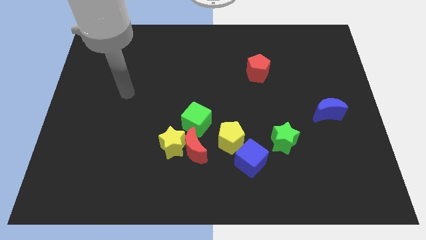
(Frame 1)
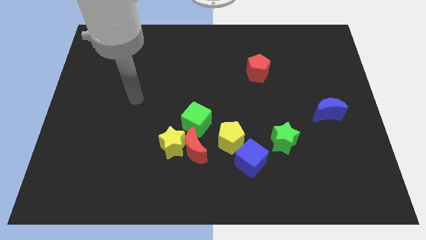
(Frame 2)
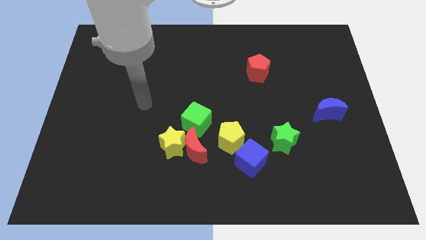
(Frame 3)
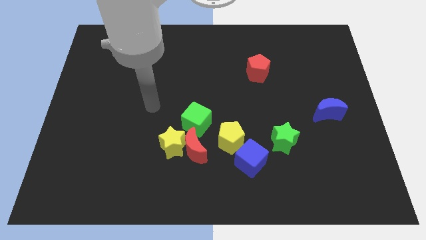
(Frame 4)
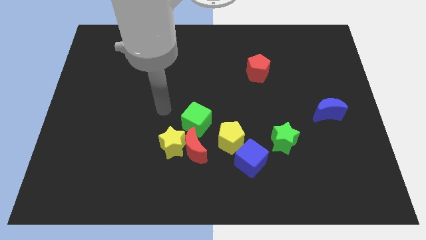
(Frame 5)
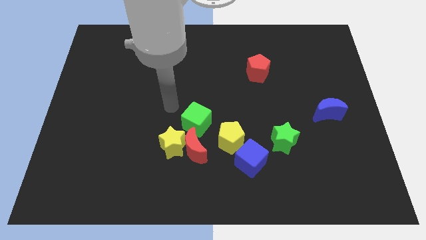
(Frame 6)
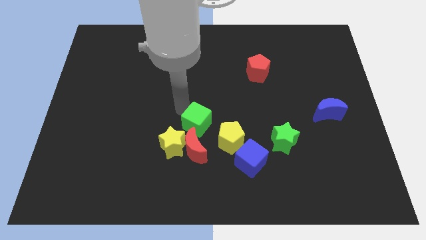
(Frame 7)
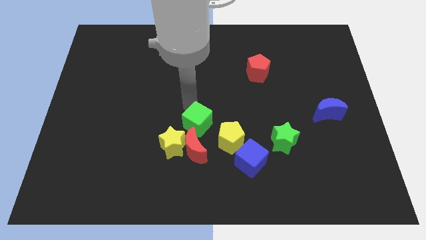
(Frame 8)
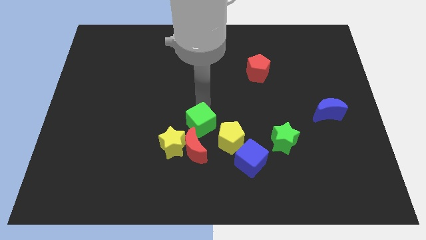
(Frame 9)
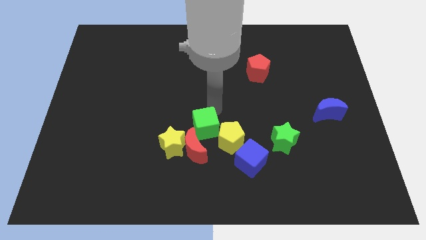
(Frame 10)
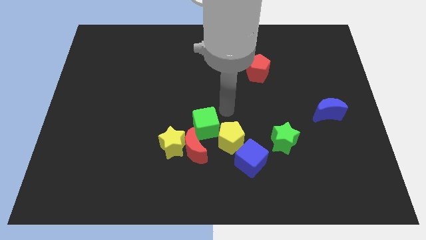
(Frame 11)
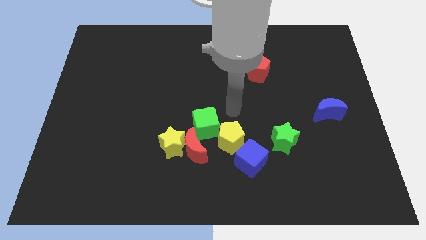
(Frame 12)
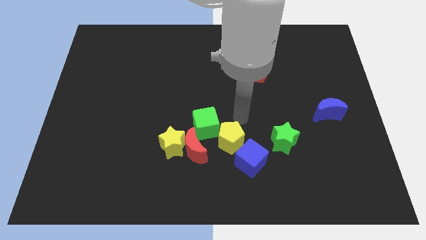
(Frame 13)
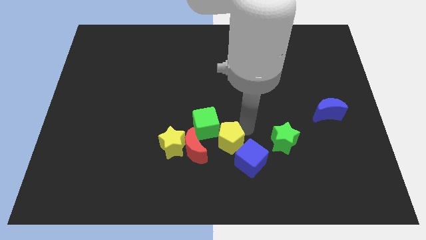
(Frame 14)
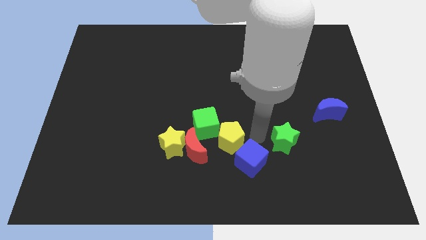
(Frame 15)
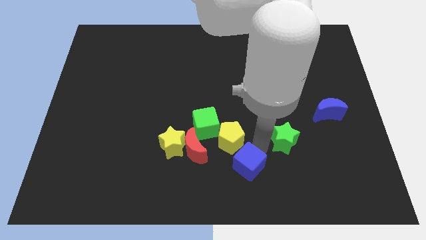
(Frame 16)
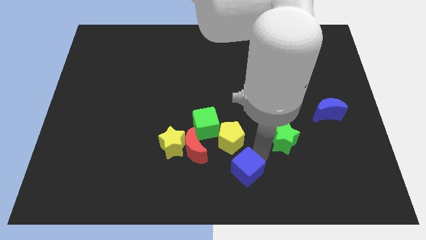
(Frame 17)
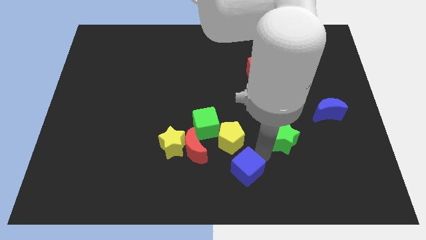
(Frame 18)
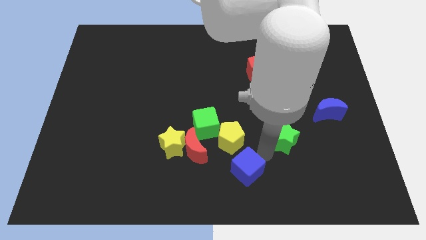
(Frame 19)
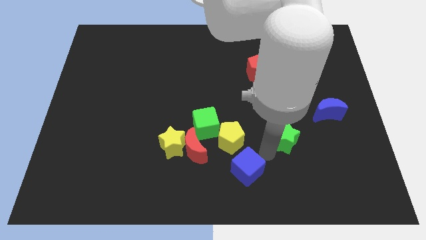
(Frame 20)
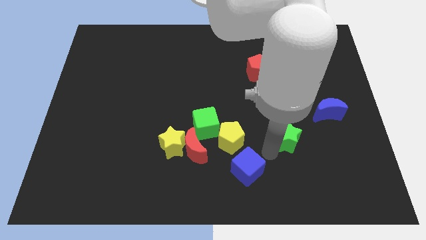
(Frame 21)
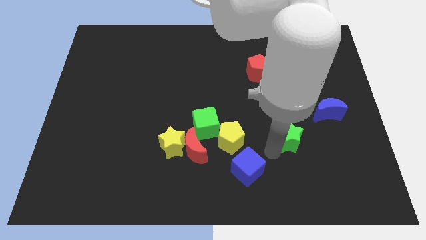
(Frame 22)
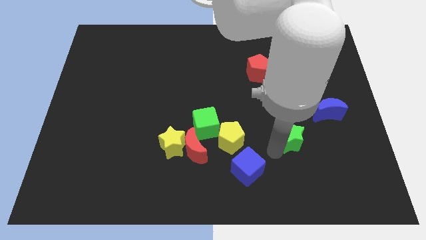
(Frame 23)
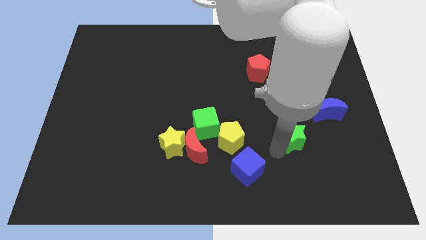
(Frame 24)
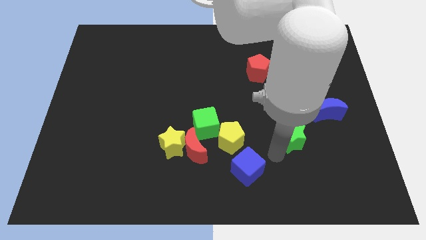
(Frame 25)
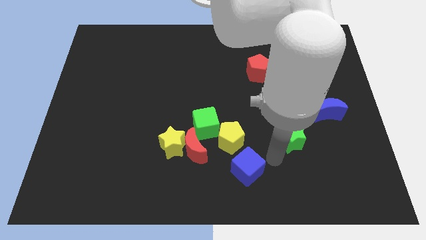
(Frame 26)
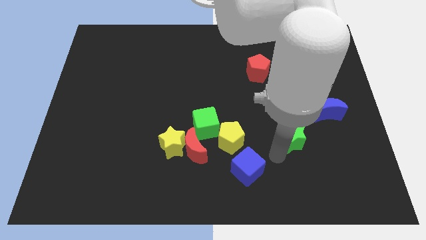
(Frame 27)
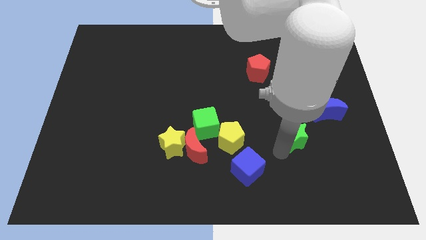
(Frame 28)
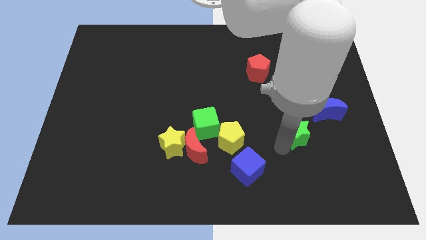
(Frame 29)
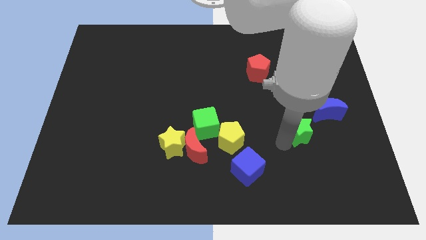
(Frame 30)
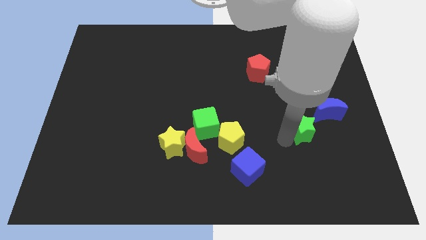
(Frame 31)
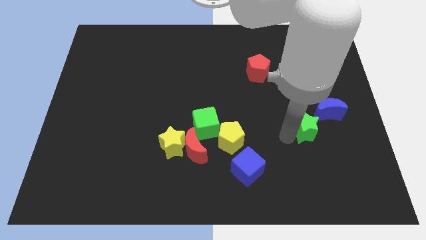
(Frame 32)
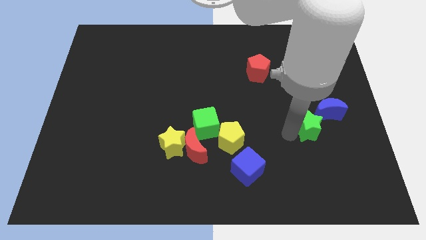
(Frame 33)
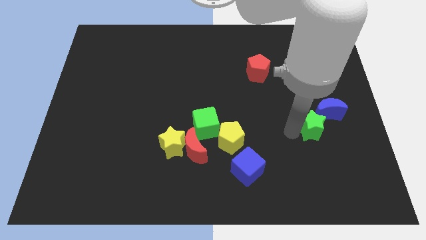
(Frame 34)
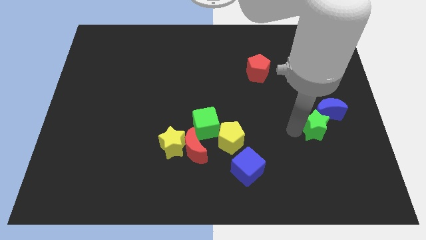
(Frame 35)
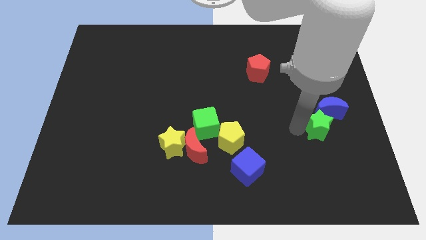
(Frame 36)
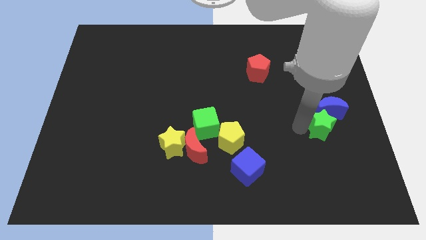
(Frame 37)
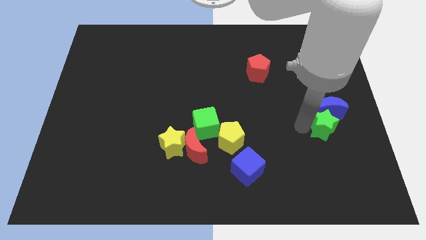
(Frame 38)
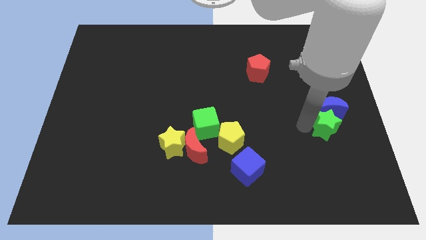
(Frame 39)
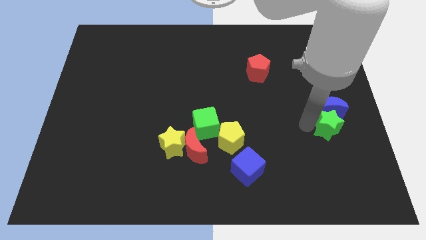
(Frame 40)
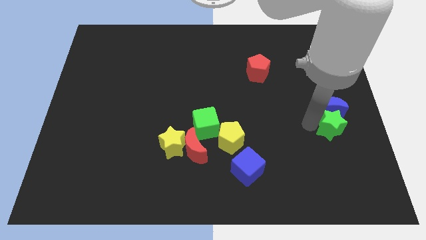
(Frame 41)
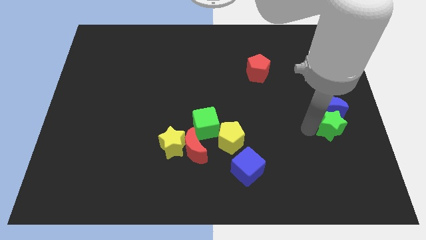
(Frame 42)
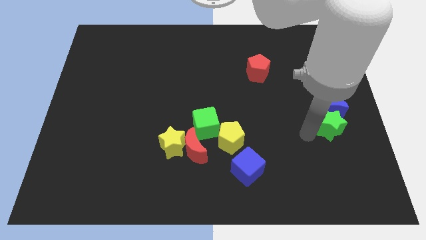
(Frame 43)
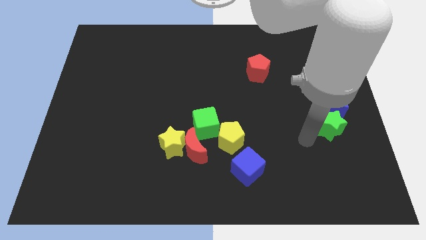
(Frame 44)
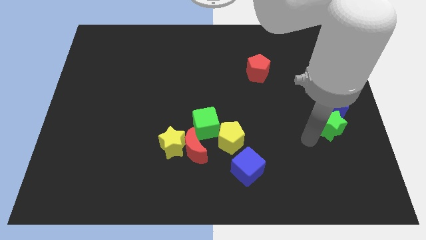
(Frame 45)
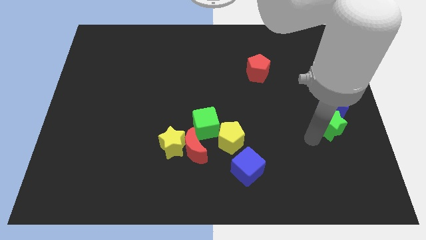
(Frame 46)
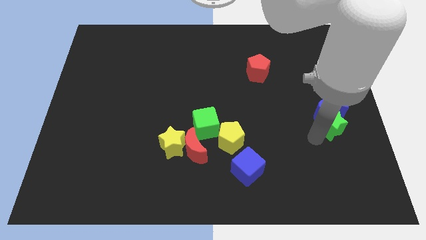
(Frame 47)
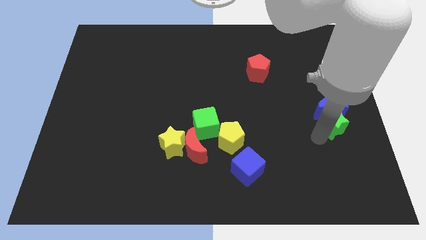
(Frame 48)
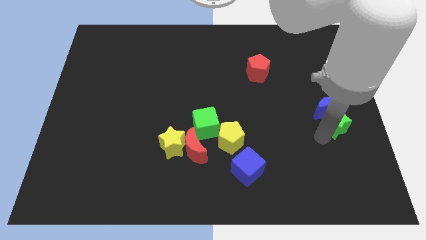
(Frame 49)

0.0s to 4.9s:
put the green star to the right side

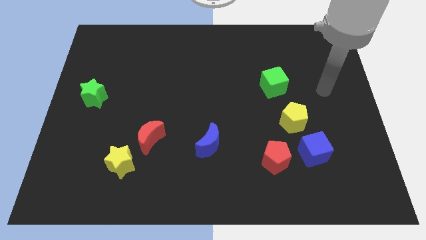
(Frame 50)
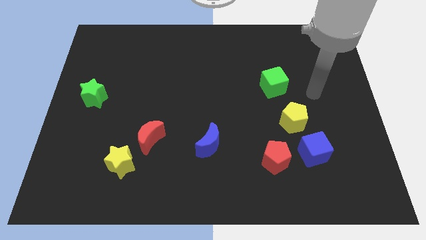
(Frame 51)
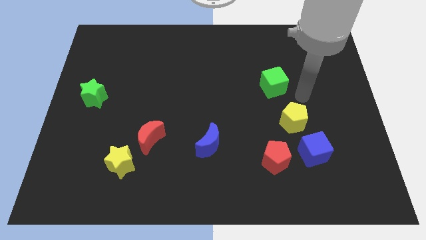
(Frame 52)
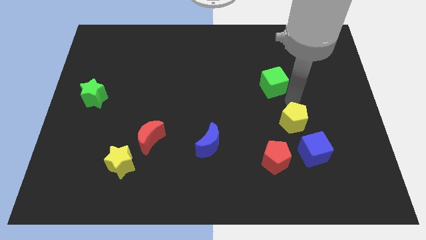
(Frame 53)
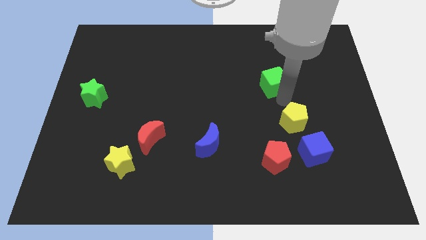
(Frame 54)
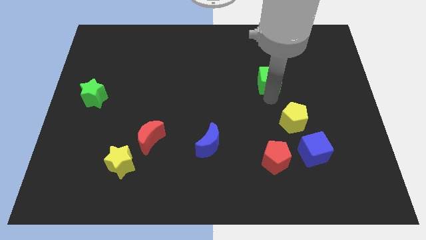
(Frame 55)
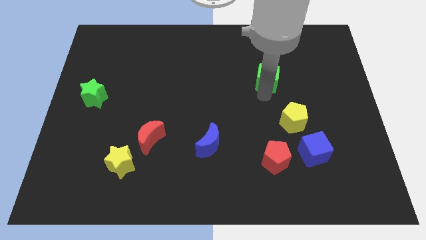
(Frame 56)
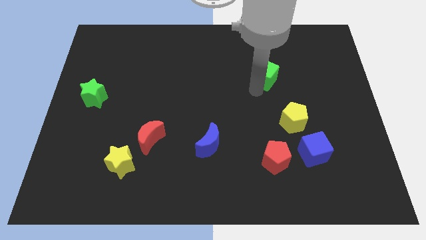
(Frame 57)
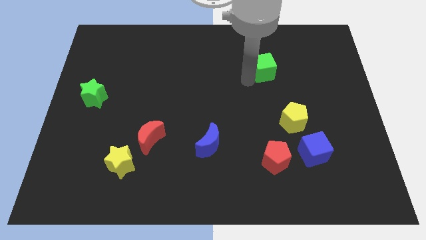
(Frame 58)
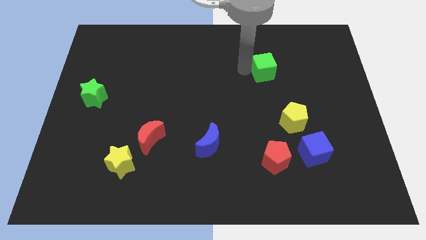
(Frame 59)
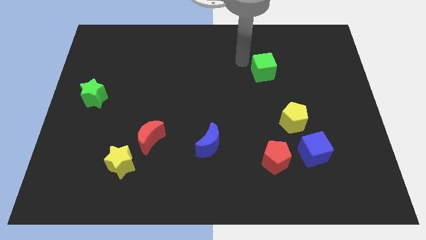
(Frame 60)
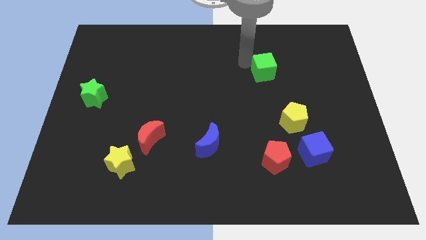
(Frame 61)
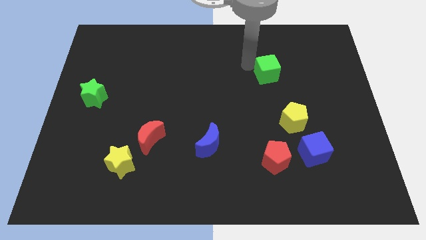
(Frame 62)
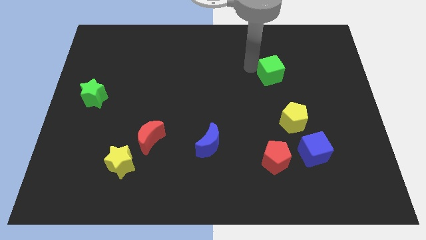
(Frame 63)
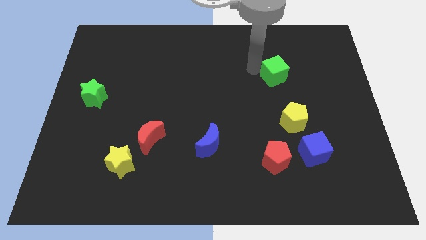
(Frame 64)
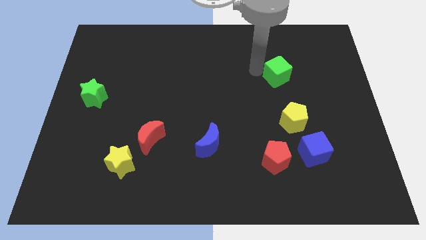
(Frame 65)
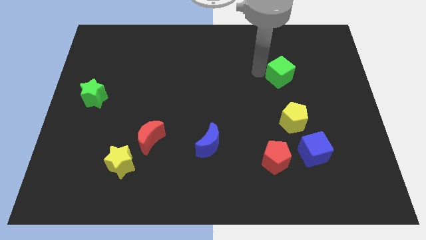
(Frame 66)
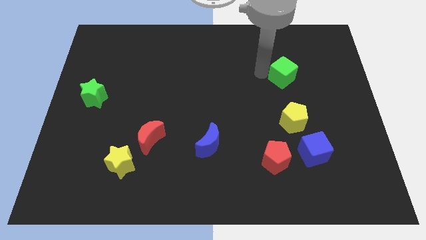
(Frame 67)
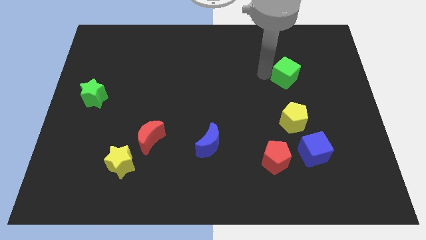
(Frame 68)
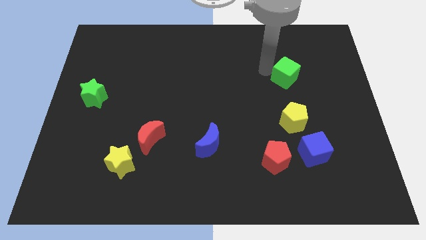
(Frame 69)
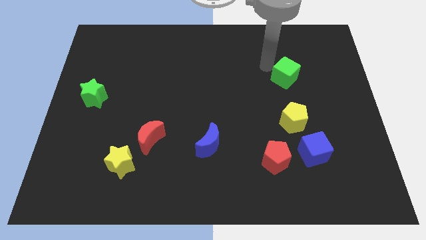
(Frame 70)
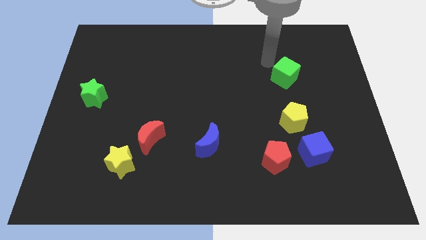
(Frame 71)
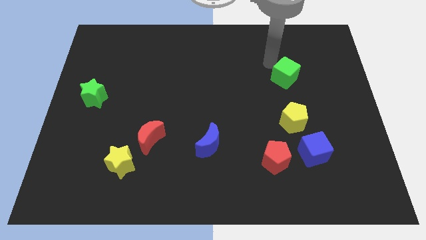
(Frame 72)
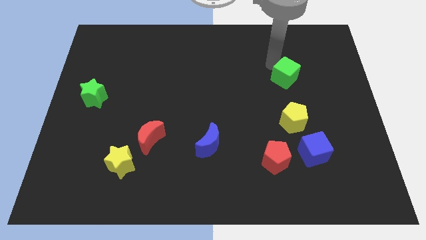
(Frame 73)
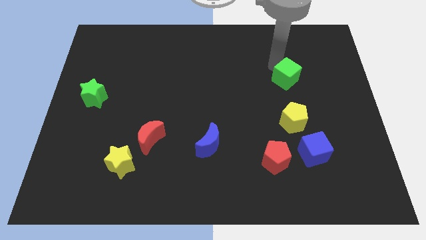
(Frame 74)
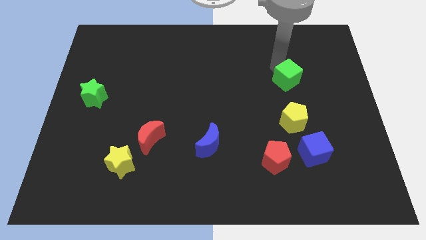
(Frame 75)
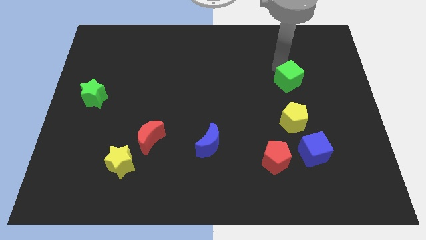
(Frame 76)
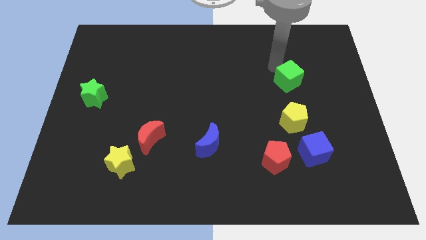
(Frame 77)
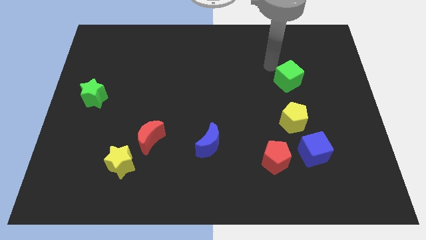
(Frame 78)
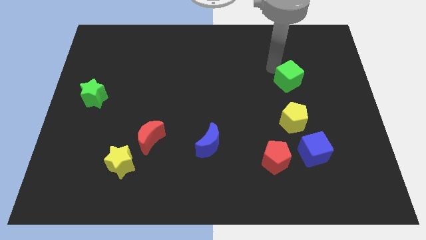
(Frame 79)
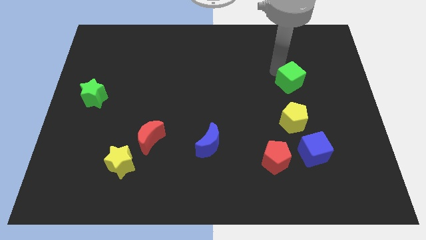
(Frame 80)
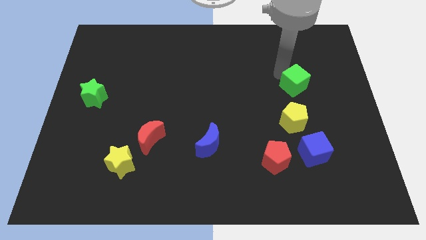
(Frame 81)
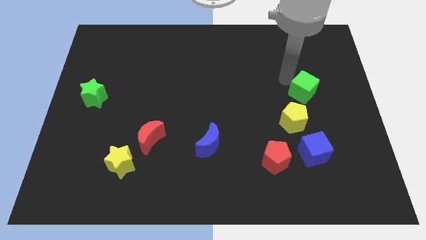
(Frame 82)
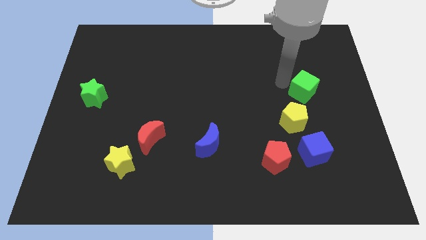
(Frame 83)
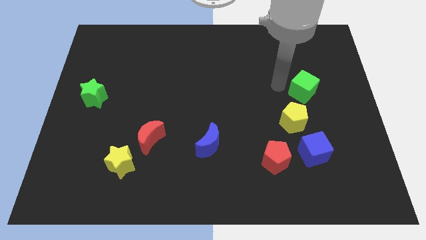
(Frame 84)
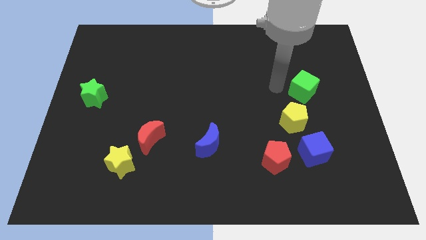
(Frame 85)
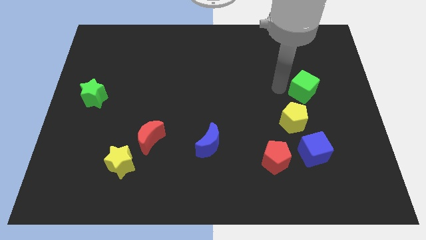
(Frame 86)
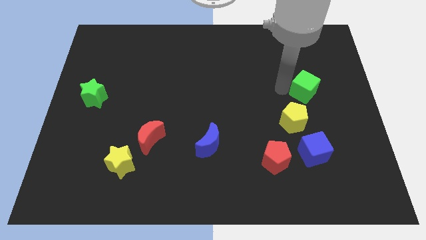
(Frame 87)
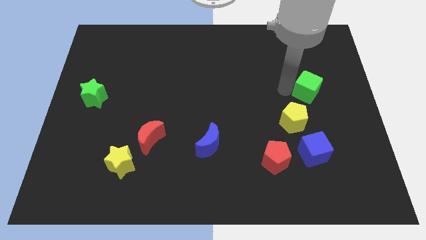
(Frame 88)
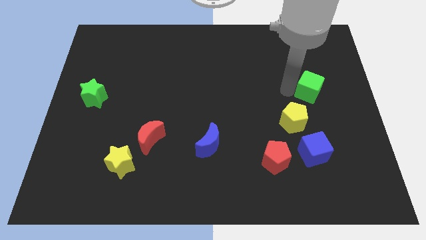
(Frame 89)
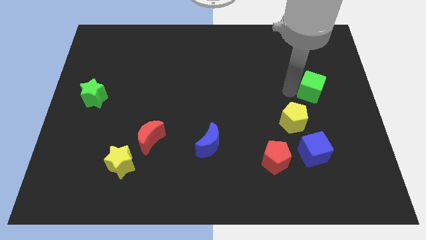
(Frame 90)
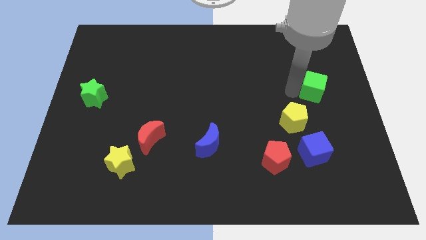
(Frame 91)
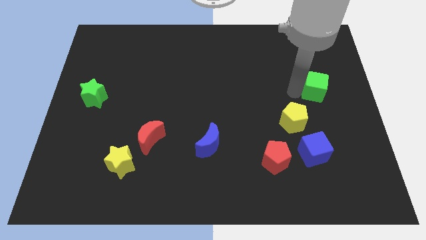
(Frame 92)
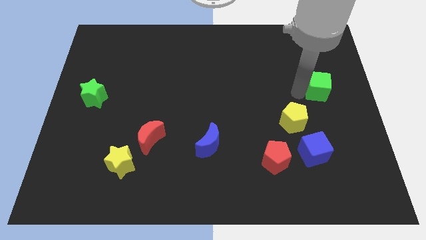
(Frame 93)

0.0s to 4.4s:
put the green cube to the right side of the board
